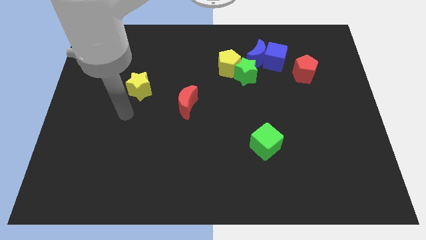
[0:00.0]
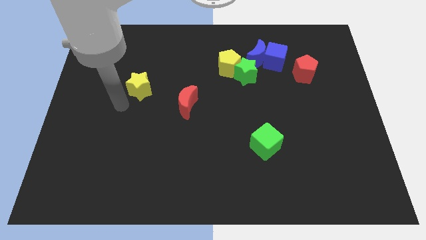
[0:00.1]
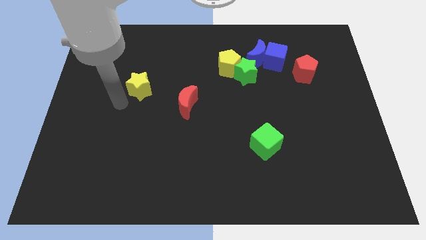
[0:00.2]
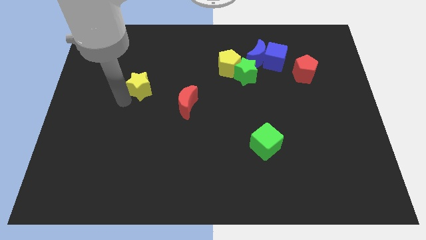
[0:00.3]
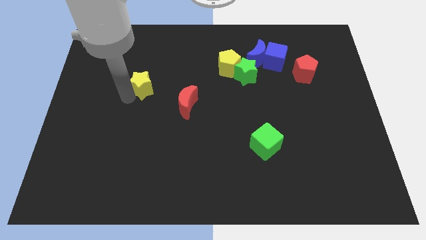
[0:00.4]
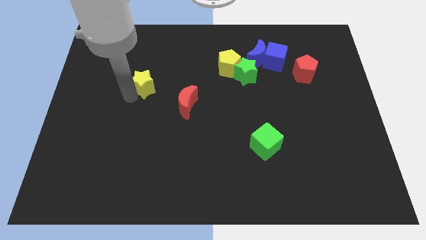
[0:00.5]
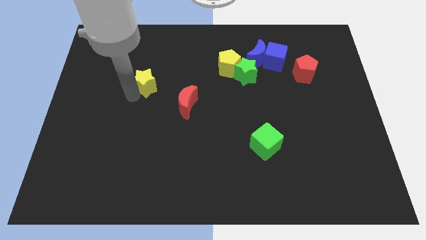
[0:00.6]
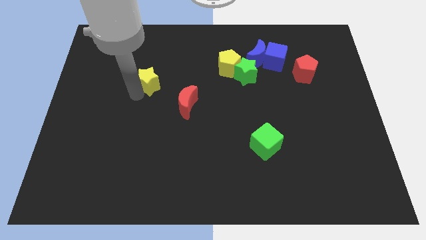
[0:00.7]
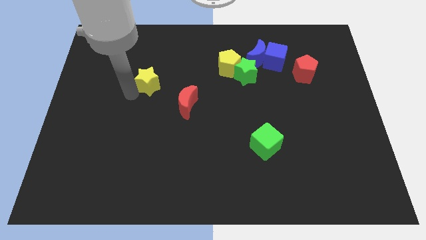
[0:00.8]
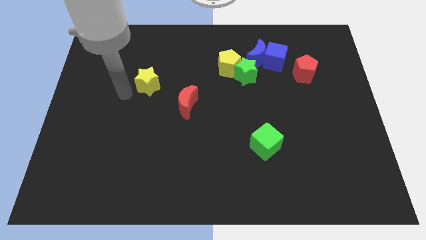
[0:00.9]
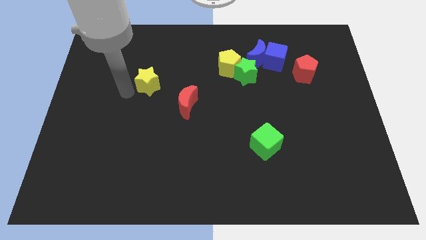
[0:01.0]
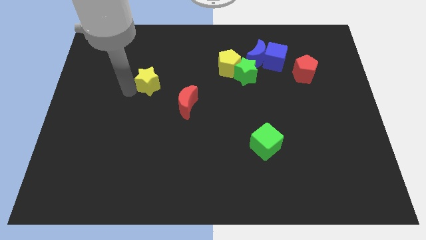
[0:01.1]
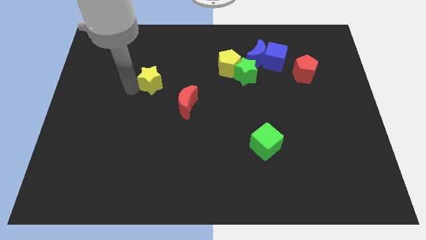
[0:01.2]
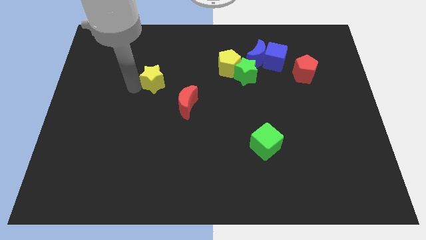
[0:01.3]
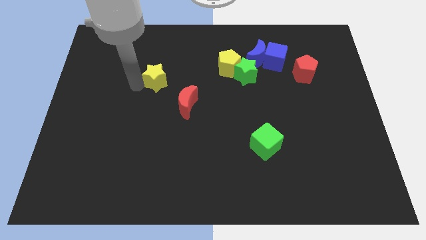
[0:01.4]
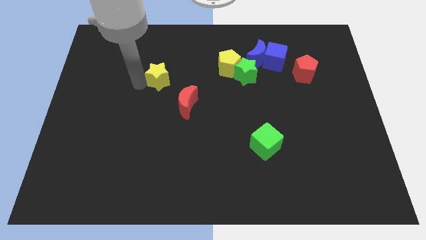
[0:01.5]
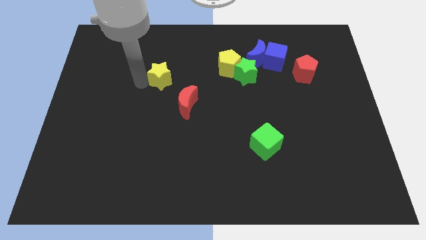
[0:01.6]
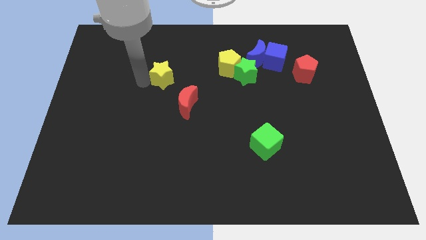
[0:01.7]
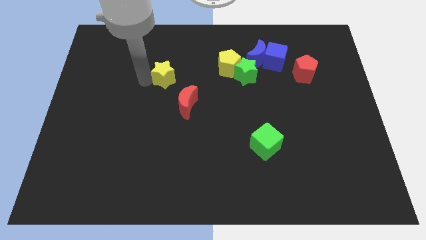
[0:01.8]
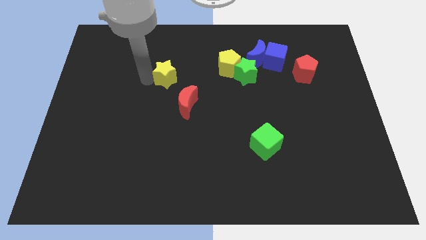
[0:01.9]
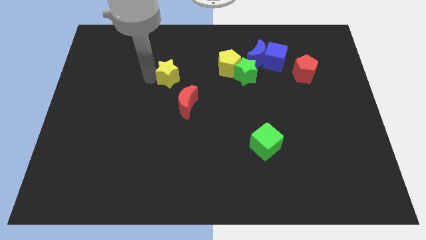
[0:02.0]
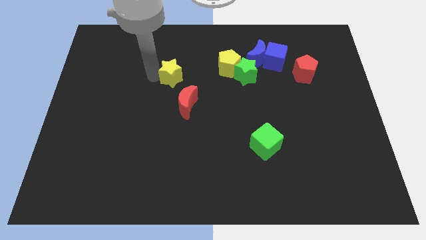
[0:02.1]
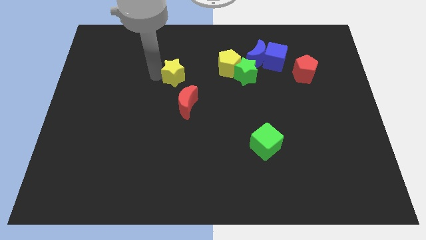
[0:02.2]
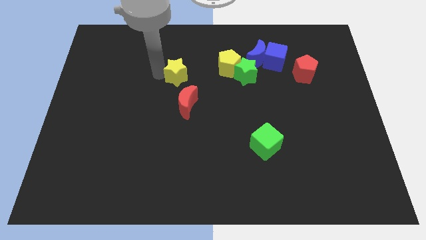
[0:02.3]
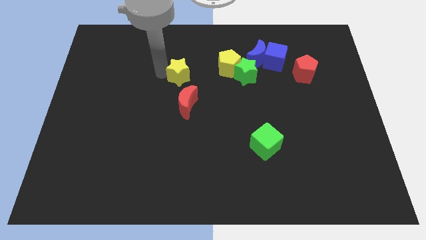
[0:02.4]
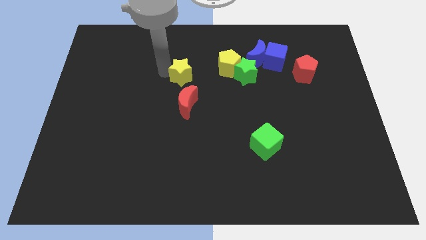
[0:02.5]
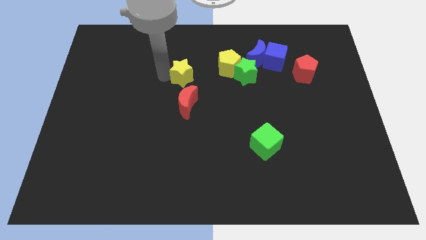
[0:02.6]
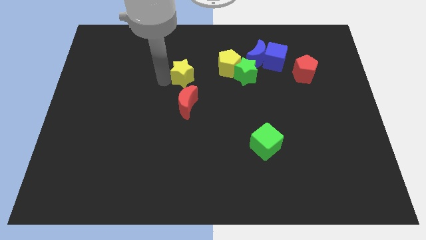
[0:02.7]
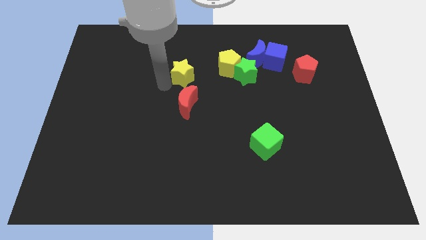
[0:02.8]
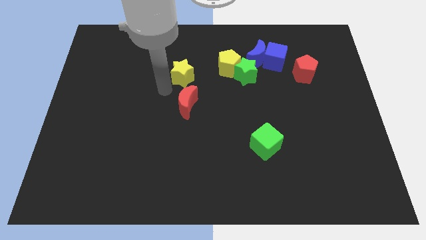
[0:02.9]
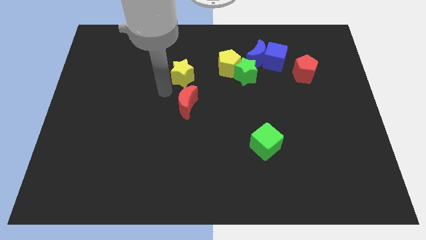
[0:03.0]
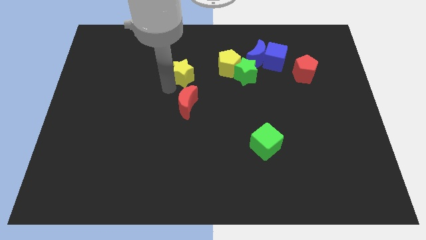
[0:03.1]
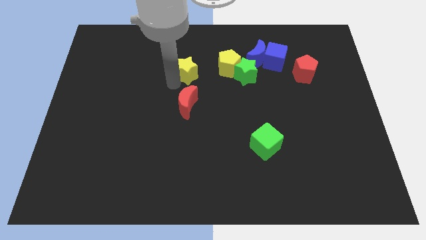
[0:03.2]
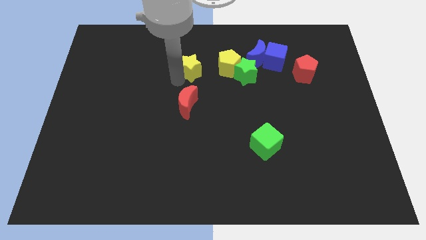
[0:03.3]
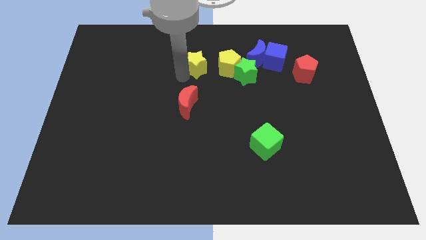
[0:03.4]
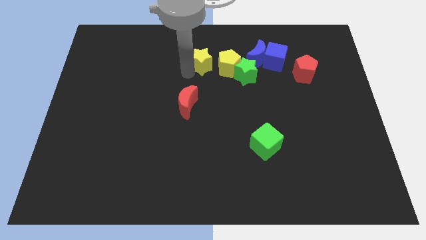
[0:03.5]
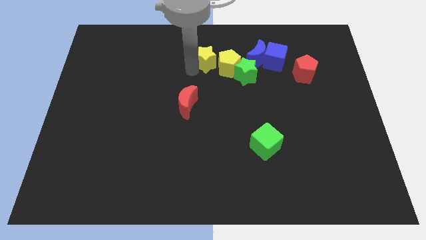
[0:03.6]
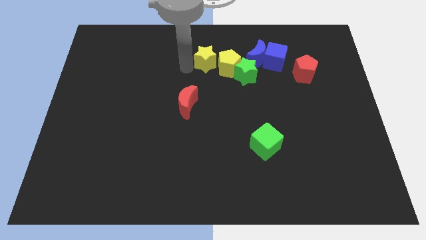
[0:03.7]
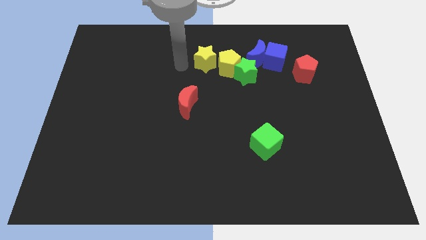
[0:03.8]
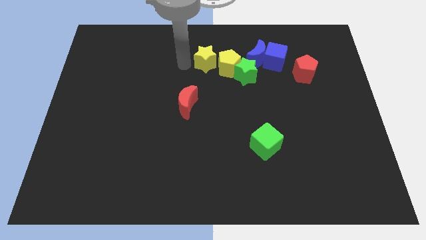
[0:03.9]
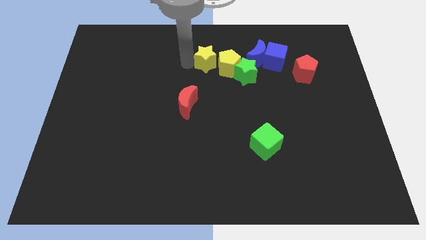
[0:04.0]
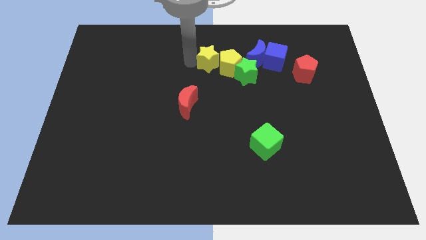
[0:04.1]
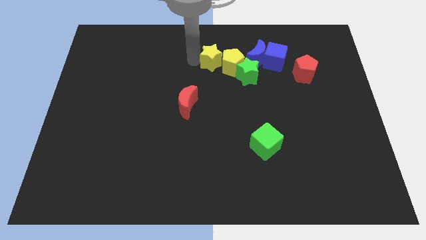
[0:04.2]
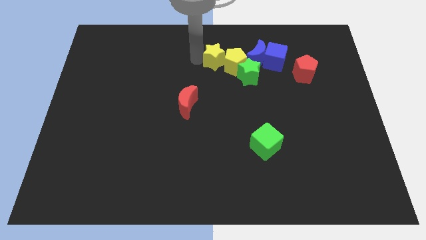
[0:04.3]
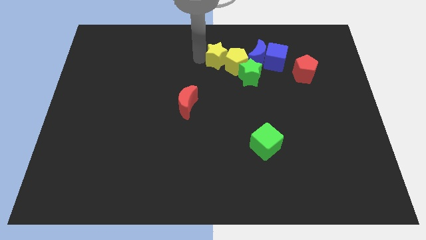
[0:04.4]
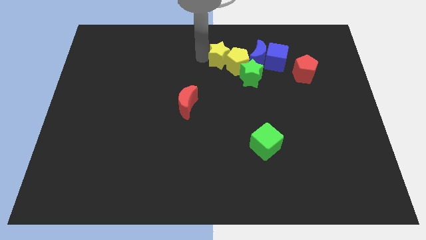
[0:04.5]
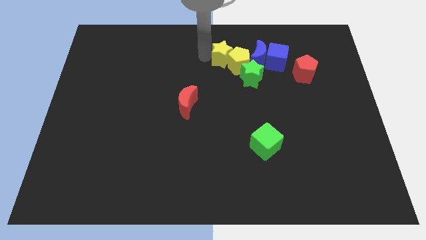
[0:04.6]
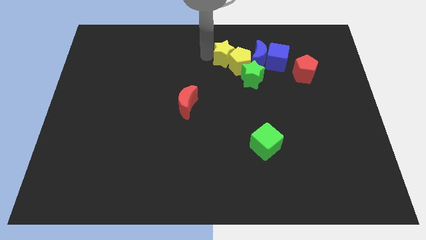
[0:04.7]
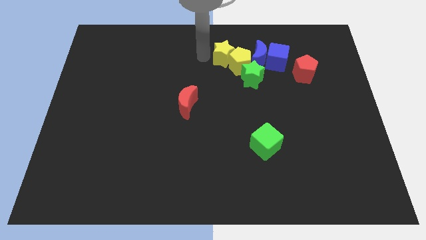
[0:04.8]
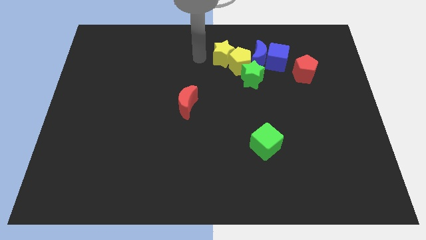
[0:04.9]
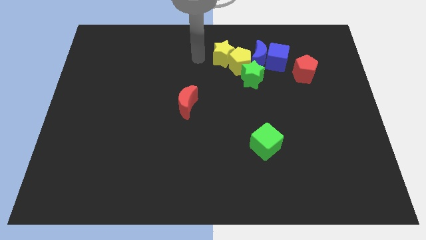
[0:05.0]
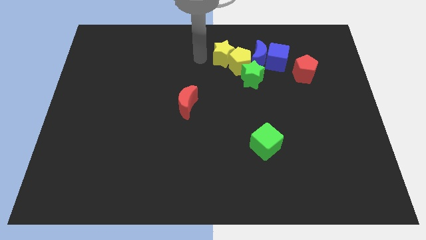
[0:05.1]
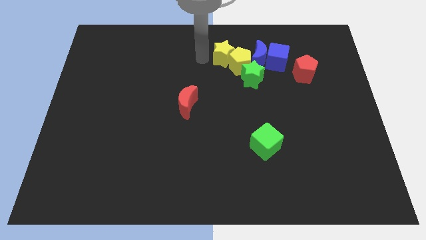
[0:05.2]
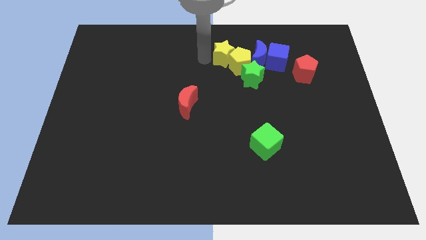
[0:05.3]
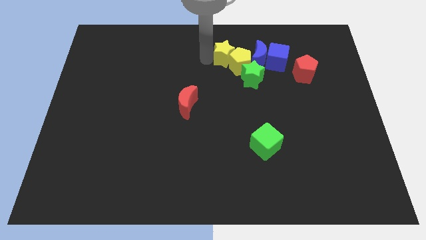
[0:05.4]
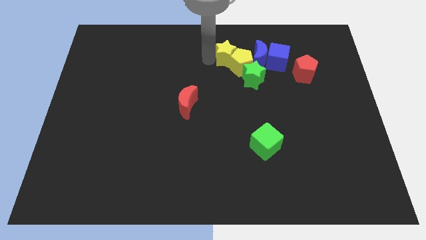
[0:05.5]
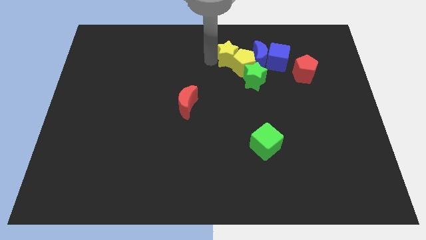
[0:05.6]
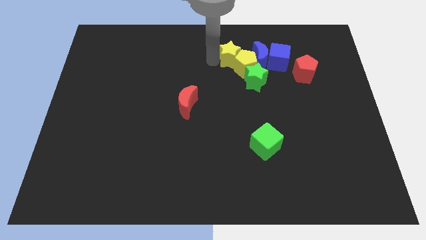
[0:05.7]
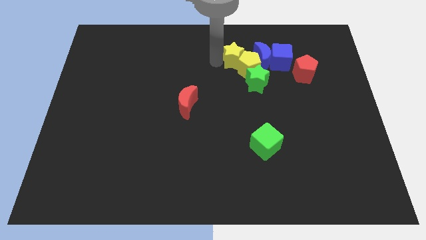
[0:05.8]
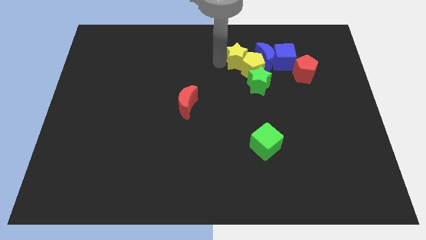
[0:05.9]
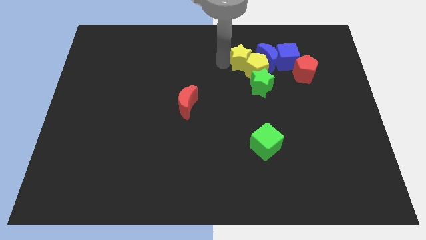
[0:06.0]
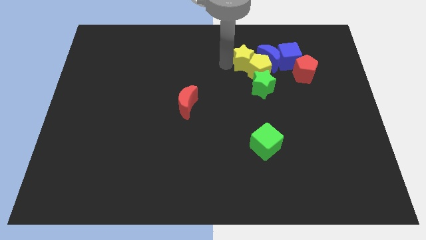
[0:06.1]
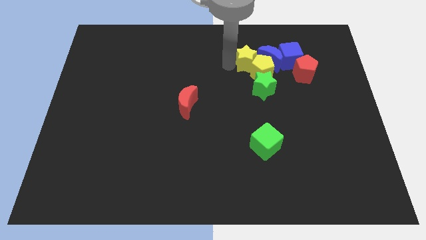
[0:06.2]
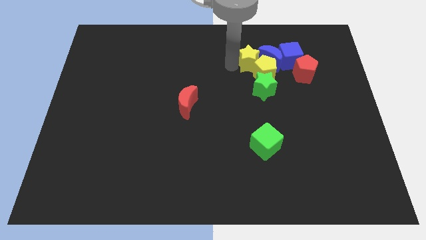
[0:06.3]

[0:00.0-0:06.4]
slide the yellow star close to the blue moon
